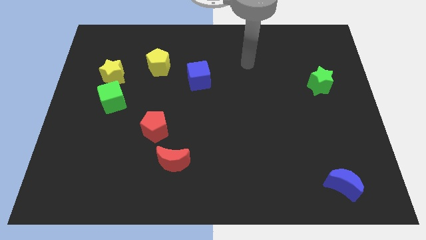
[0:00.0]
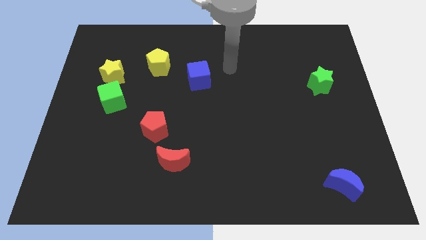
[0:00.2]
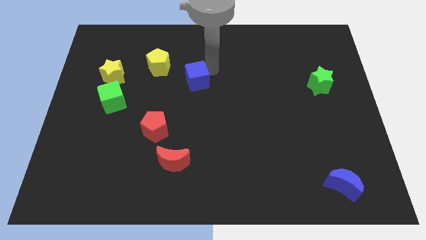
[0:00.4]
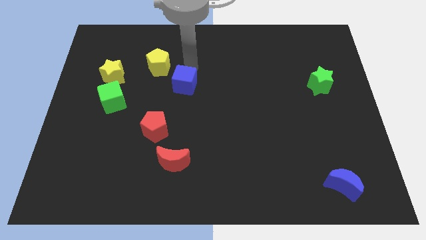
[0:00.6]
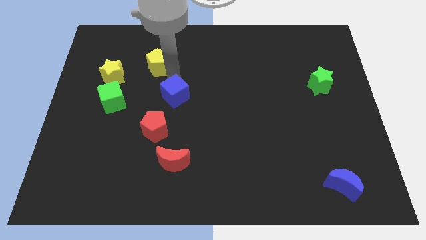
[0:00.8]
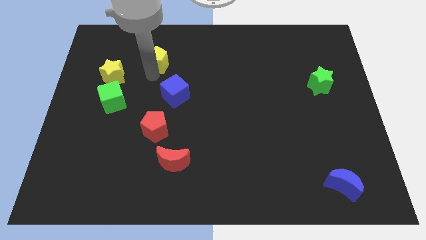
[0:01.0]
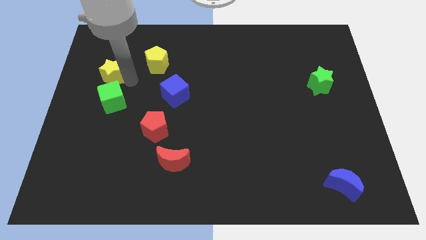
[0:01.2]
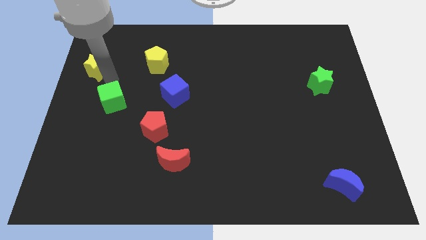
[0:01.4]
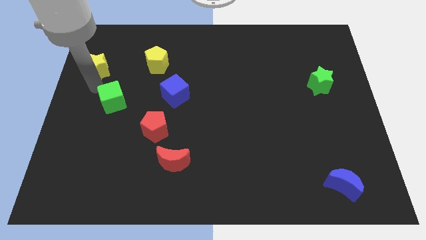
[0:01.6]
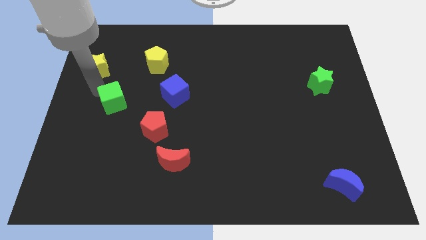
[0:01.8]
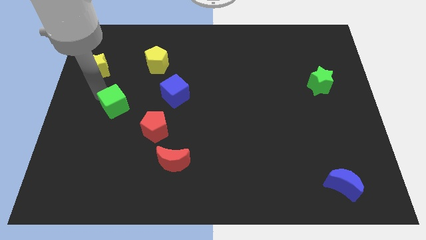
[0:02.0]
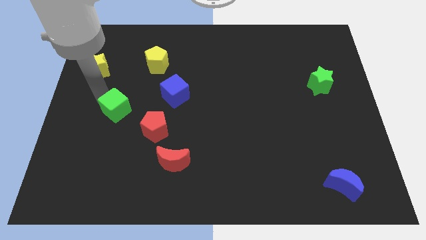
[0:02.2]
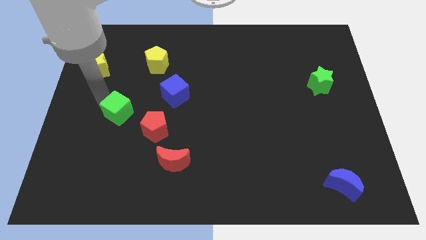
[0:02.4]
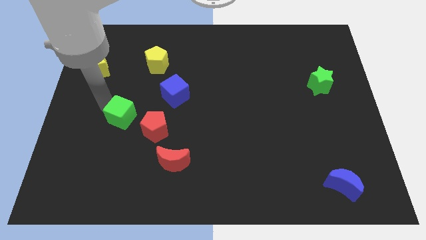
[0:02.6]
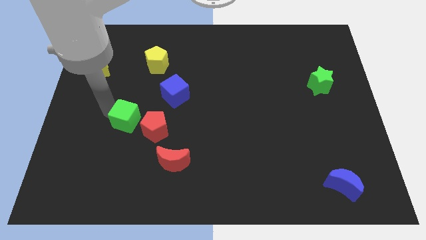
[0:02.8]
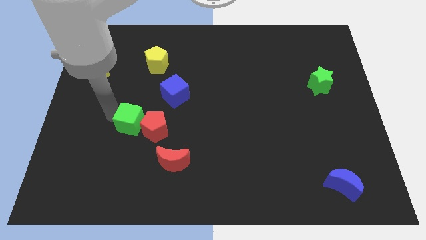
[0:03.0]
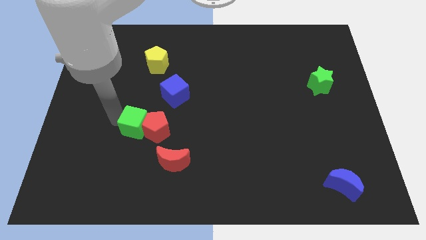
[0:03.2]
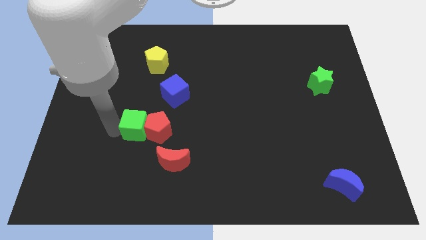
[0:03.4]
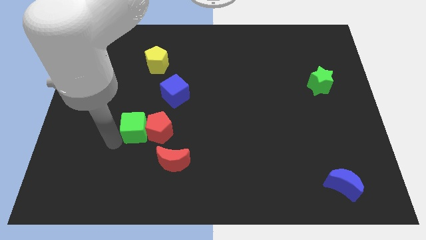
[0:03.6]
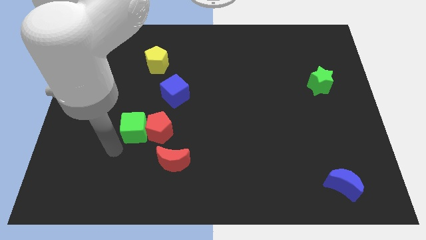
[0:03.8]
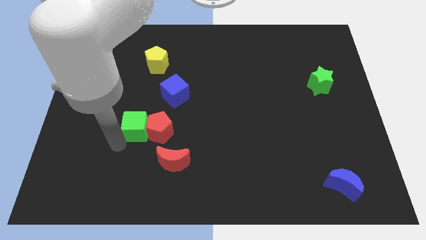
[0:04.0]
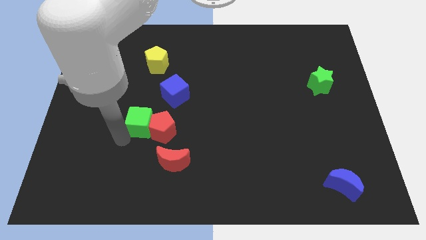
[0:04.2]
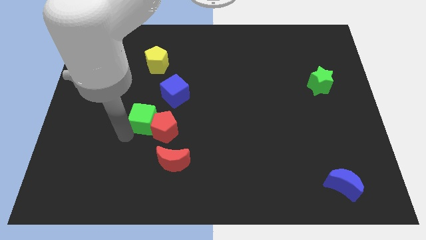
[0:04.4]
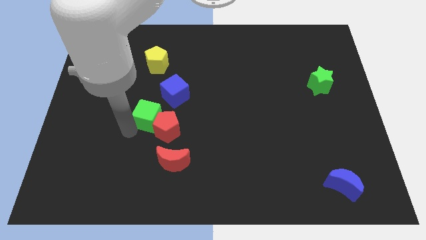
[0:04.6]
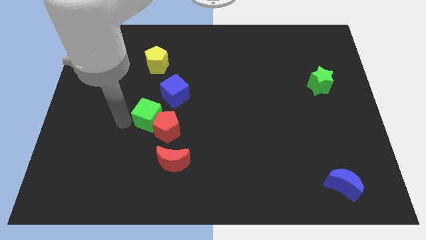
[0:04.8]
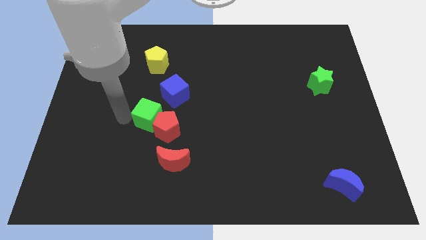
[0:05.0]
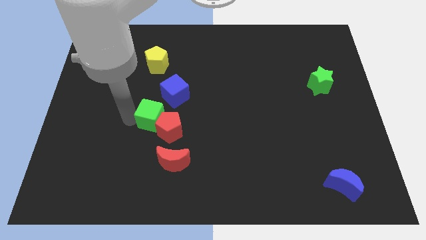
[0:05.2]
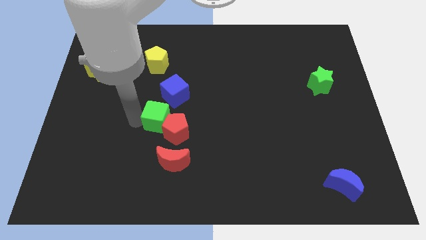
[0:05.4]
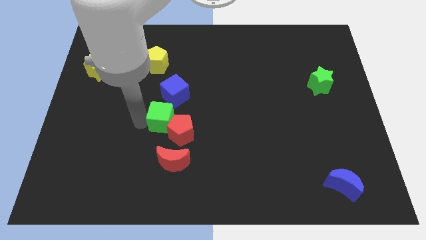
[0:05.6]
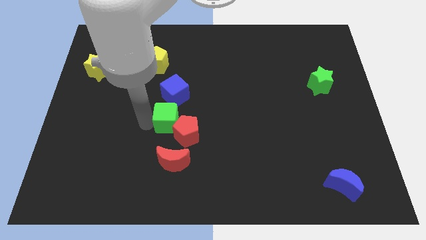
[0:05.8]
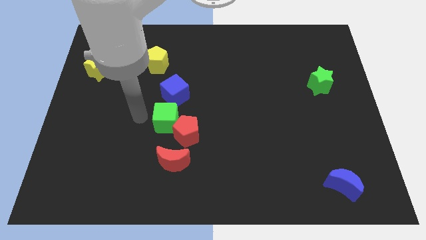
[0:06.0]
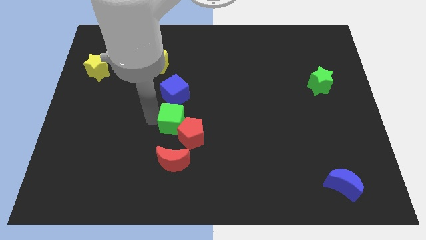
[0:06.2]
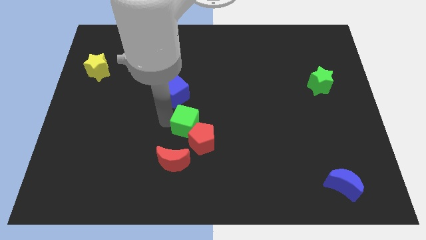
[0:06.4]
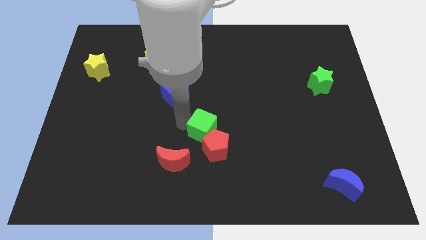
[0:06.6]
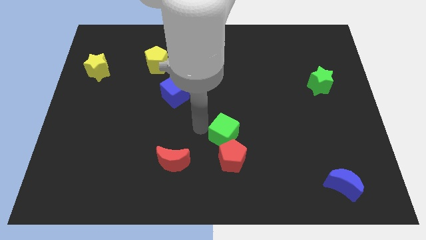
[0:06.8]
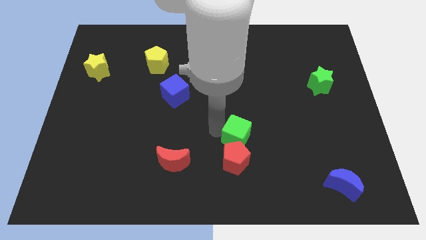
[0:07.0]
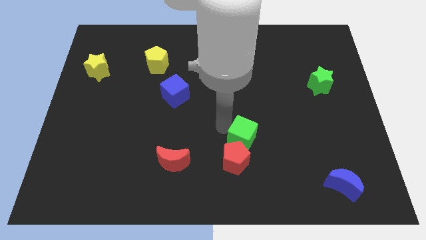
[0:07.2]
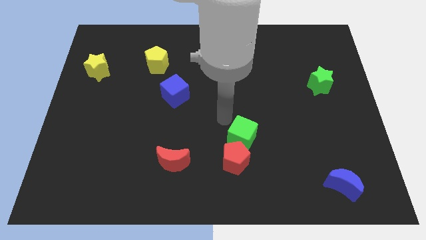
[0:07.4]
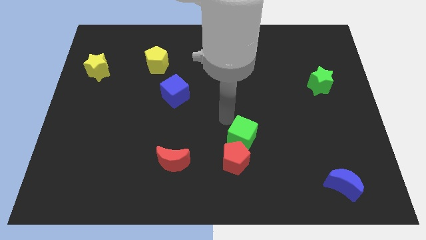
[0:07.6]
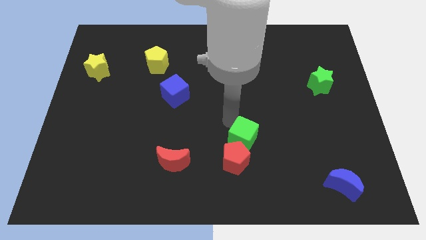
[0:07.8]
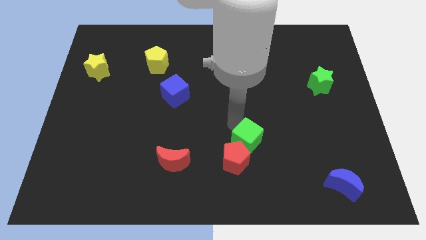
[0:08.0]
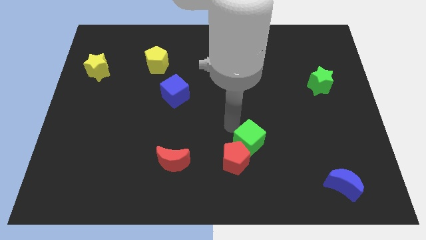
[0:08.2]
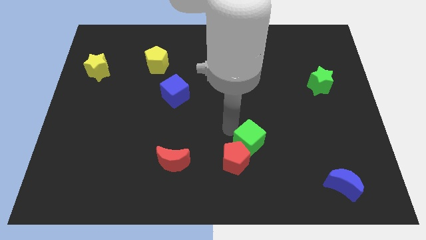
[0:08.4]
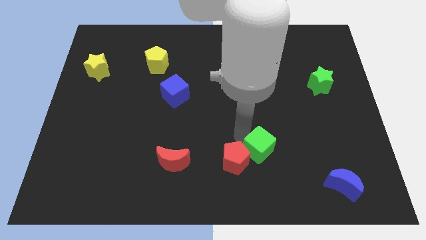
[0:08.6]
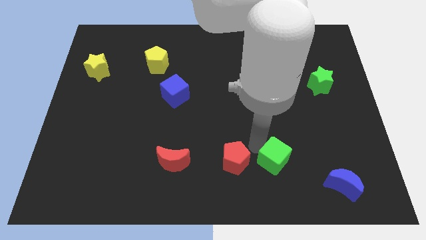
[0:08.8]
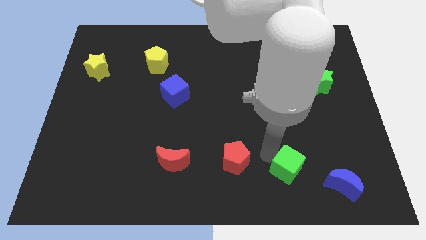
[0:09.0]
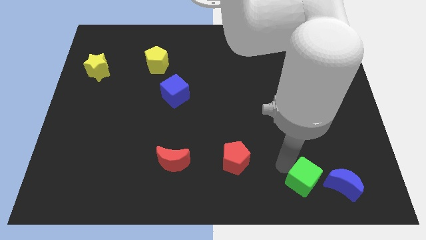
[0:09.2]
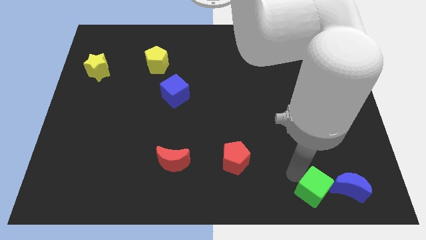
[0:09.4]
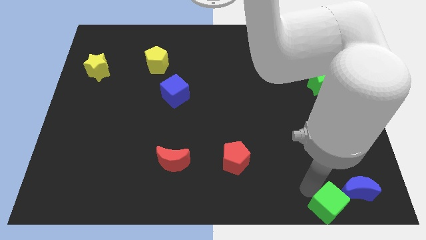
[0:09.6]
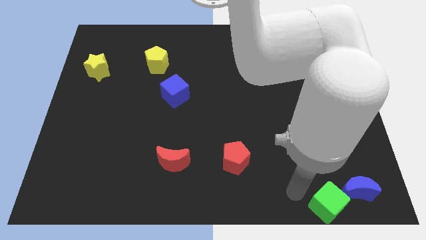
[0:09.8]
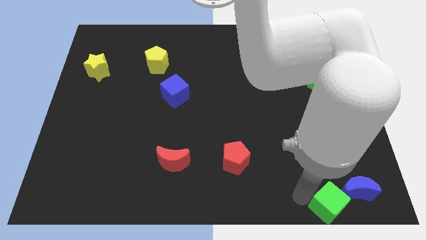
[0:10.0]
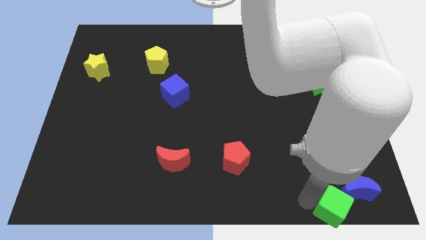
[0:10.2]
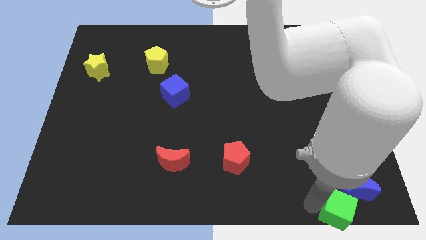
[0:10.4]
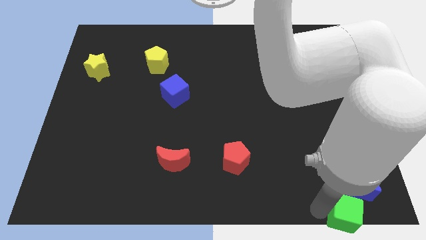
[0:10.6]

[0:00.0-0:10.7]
push the green cube to the bottom right corner
